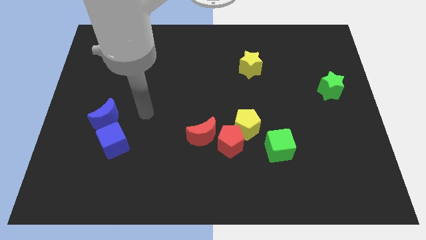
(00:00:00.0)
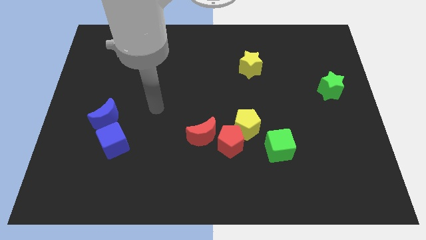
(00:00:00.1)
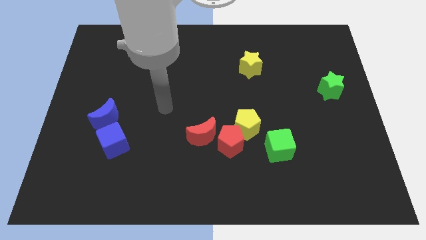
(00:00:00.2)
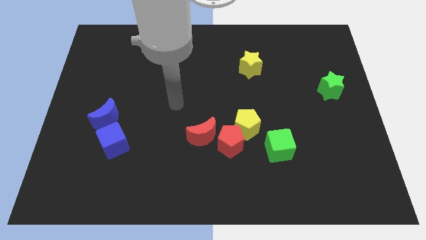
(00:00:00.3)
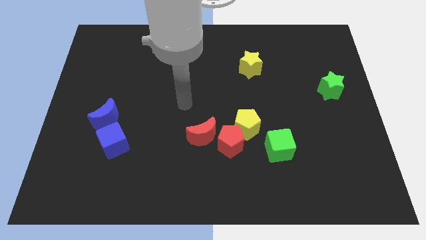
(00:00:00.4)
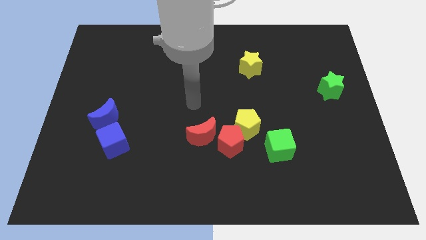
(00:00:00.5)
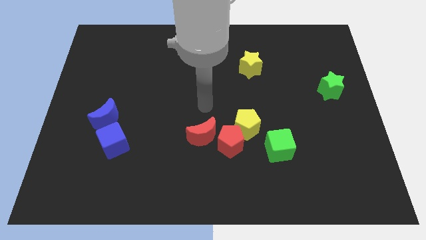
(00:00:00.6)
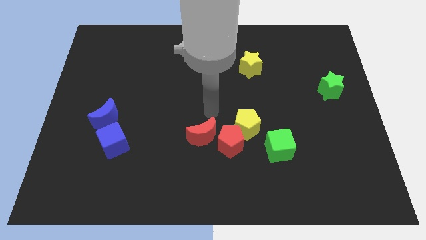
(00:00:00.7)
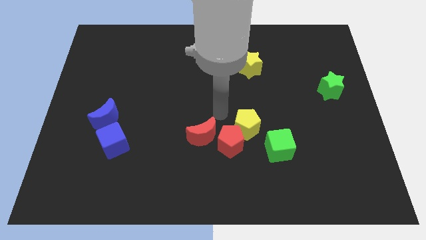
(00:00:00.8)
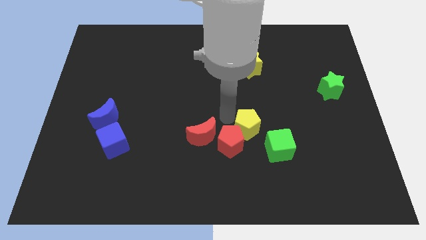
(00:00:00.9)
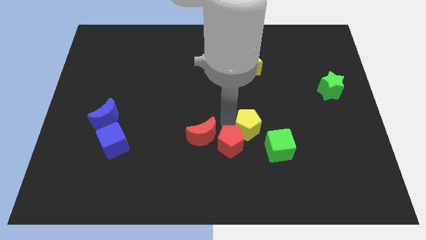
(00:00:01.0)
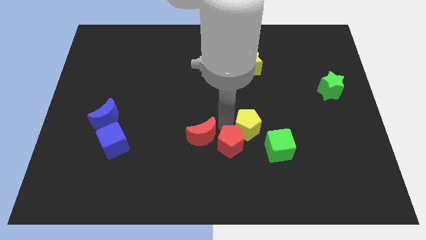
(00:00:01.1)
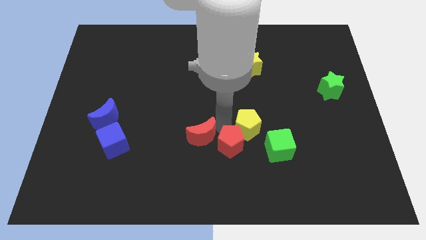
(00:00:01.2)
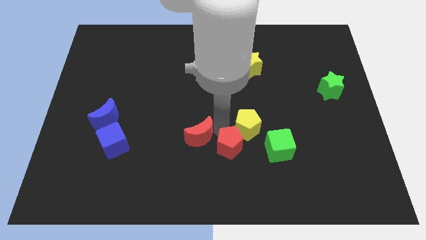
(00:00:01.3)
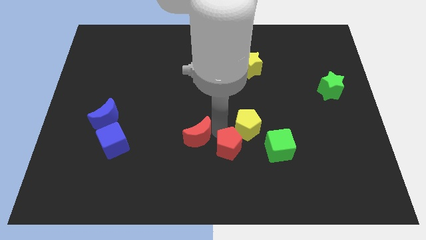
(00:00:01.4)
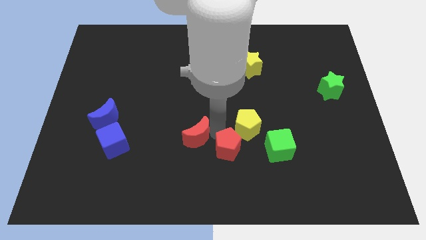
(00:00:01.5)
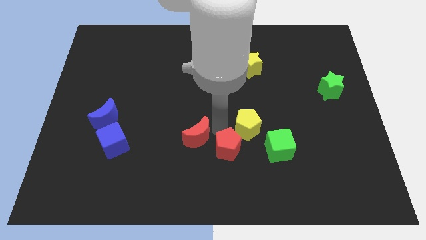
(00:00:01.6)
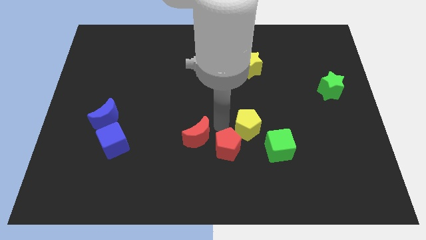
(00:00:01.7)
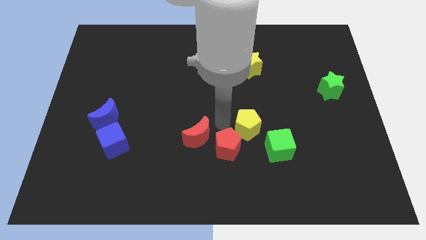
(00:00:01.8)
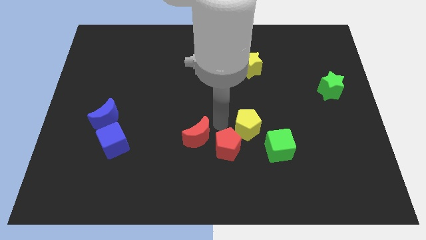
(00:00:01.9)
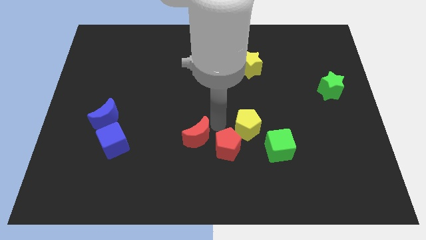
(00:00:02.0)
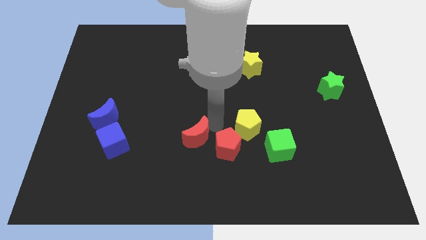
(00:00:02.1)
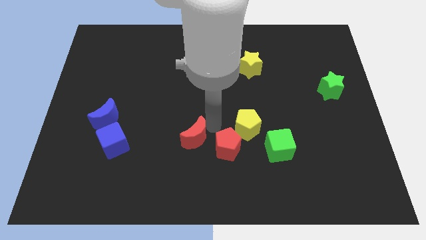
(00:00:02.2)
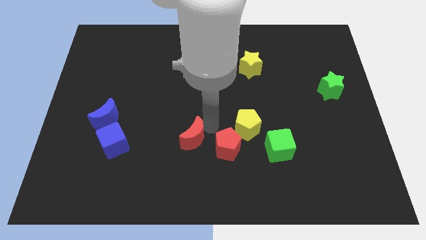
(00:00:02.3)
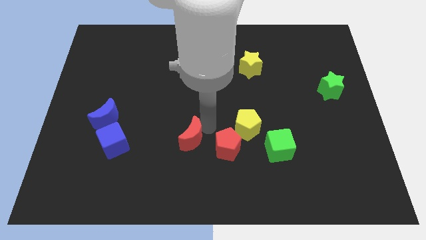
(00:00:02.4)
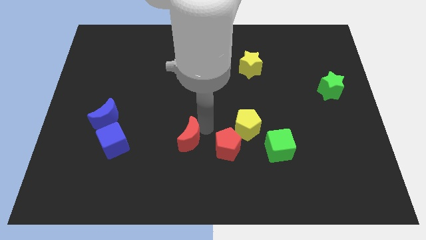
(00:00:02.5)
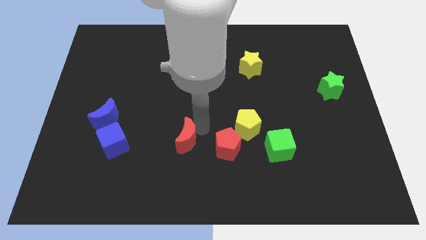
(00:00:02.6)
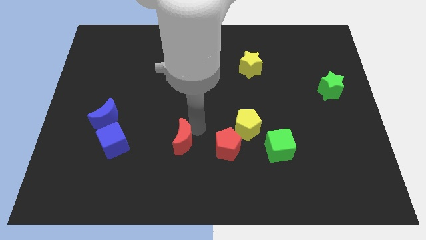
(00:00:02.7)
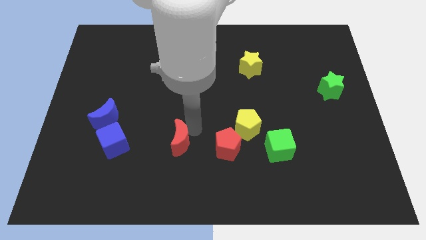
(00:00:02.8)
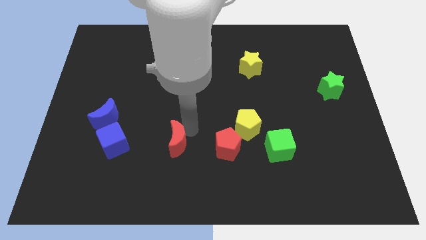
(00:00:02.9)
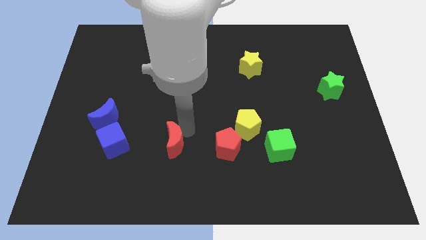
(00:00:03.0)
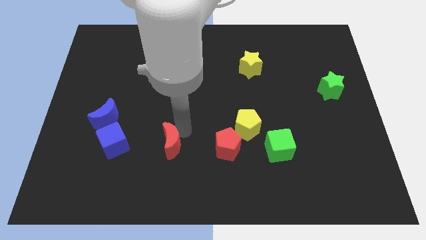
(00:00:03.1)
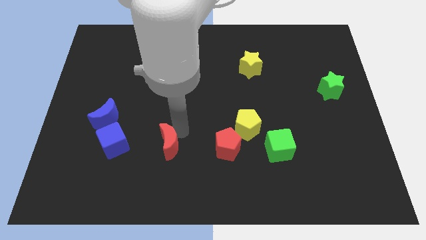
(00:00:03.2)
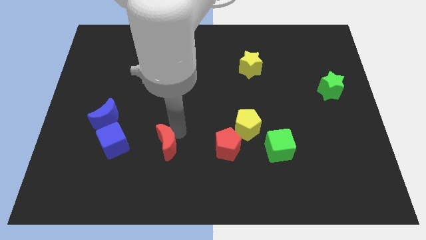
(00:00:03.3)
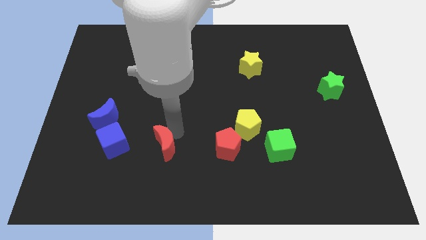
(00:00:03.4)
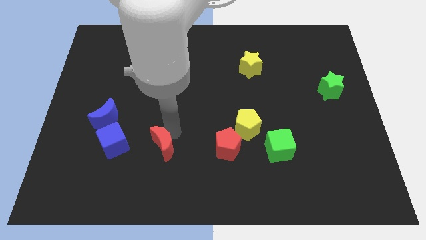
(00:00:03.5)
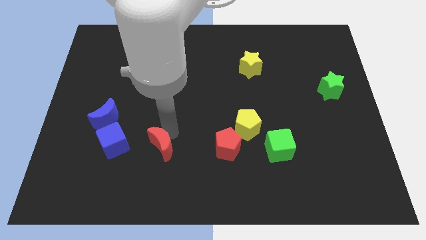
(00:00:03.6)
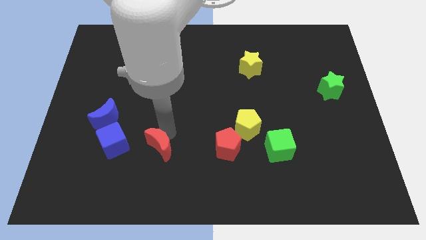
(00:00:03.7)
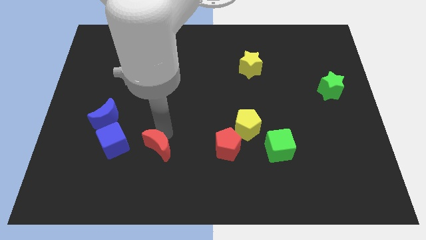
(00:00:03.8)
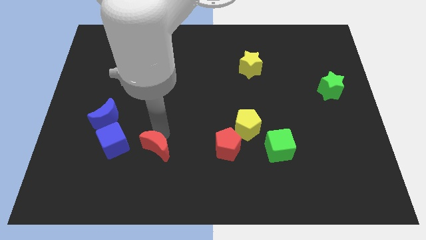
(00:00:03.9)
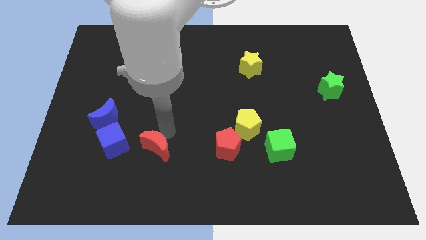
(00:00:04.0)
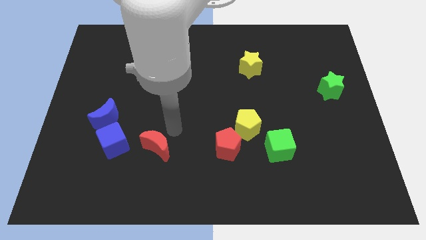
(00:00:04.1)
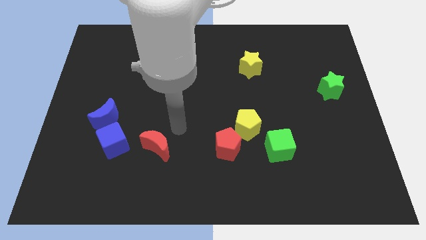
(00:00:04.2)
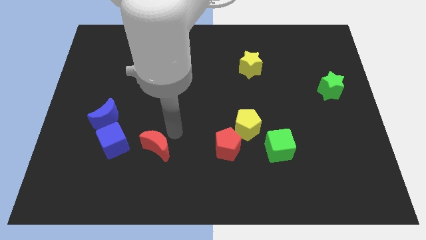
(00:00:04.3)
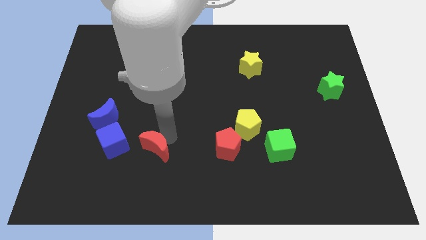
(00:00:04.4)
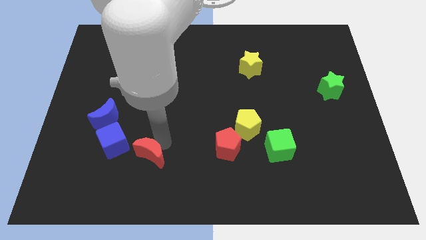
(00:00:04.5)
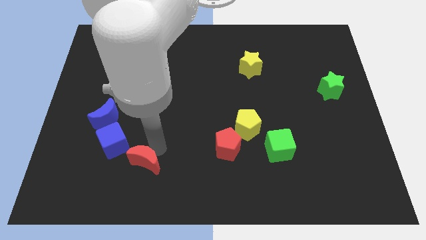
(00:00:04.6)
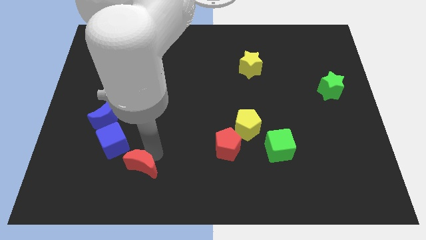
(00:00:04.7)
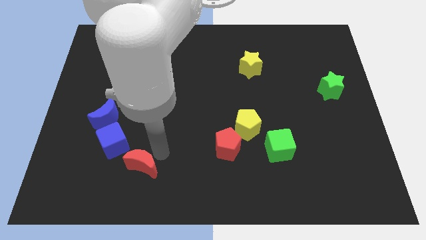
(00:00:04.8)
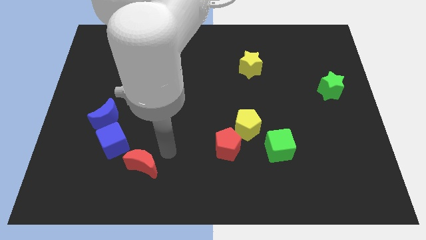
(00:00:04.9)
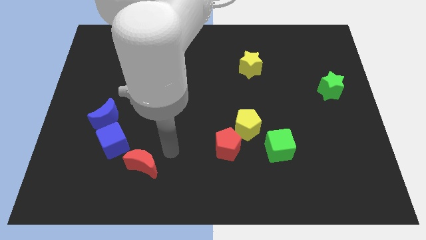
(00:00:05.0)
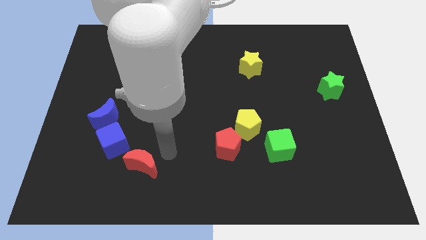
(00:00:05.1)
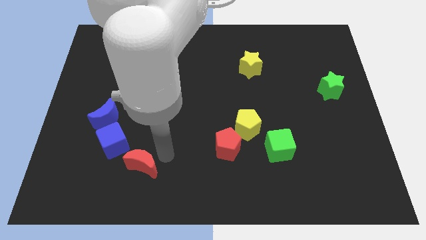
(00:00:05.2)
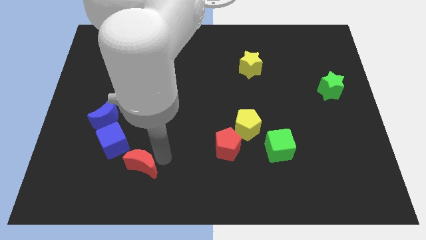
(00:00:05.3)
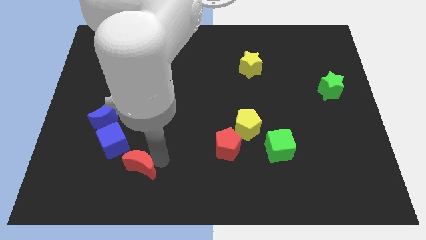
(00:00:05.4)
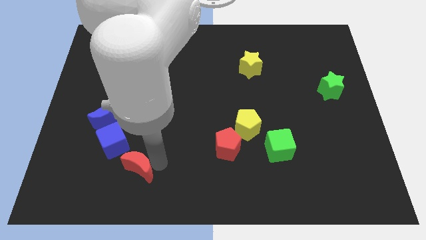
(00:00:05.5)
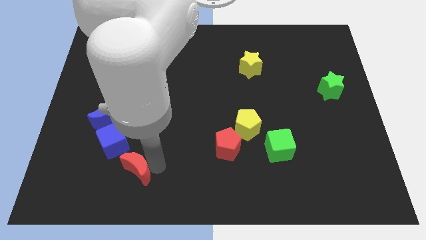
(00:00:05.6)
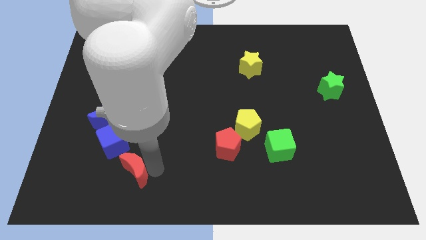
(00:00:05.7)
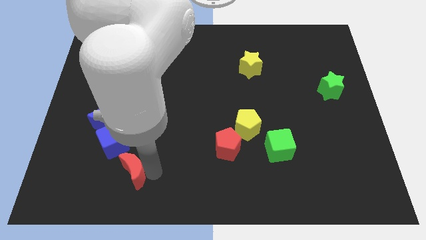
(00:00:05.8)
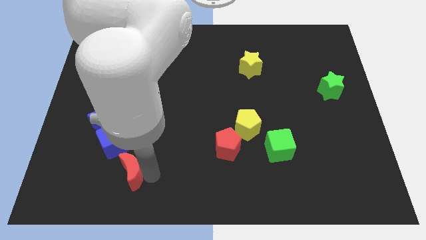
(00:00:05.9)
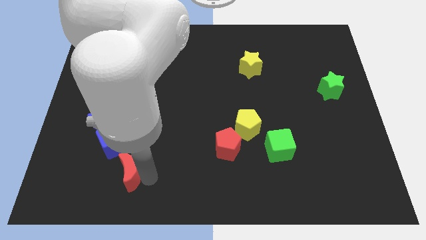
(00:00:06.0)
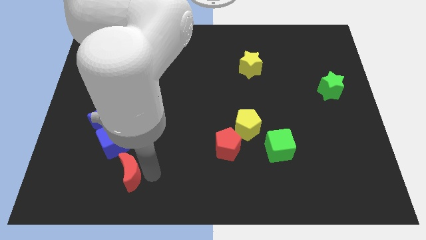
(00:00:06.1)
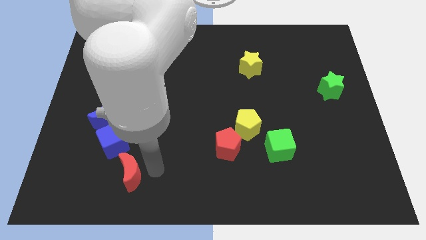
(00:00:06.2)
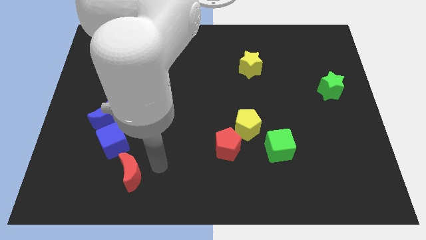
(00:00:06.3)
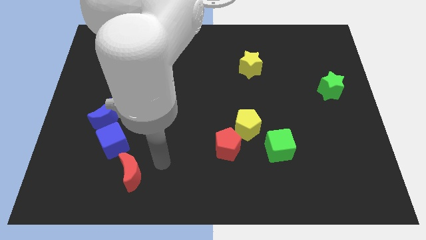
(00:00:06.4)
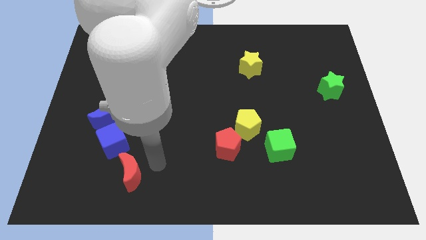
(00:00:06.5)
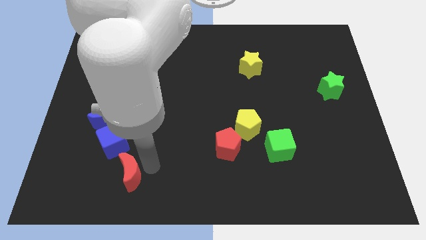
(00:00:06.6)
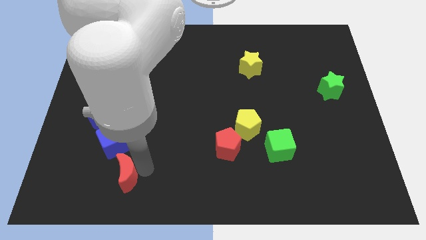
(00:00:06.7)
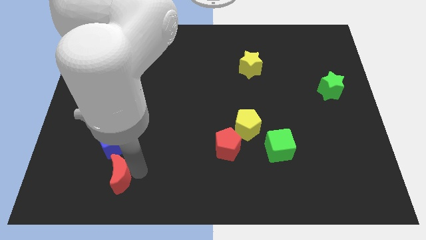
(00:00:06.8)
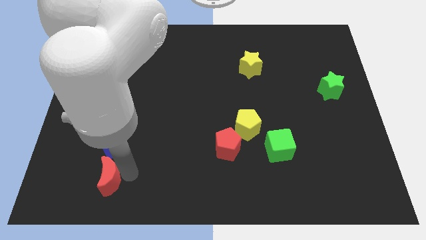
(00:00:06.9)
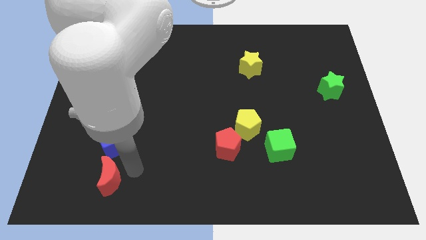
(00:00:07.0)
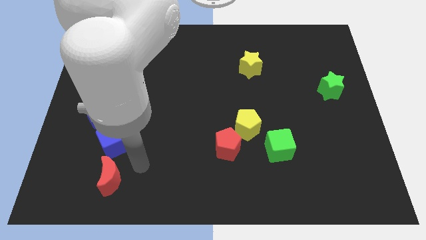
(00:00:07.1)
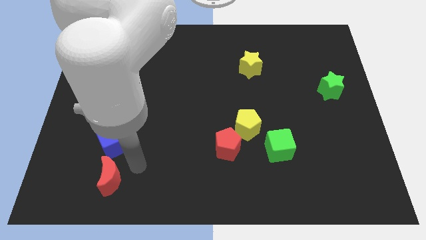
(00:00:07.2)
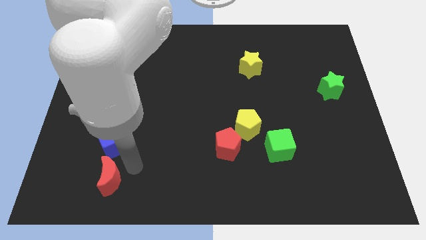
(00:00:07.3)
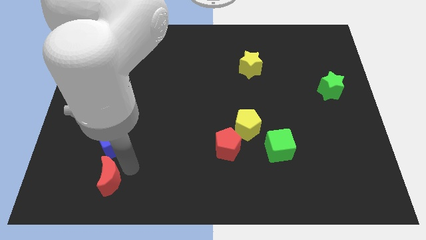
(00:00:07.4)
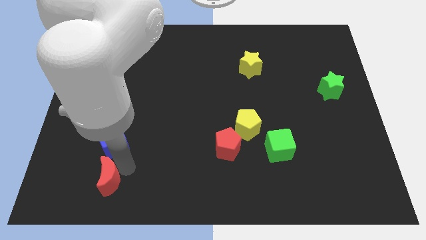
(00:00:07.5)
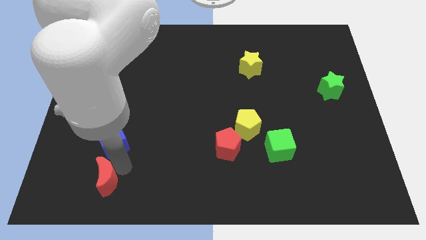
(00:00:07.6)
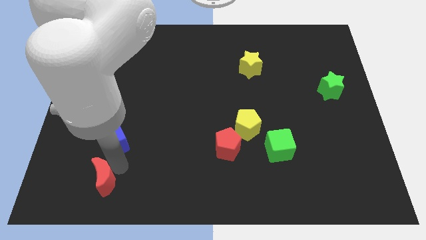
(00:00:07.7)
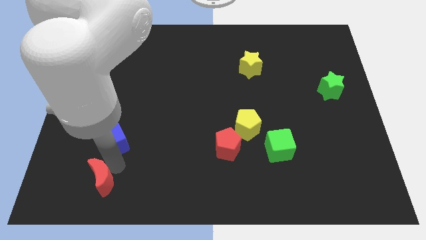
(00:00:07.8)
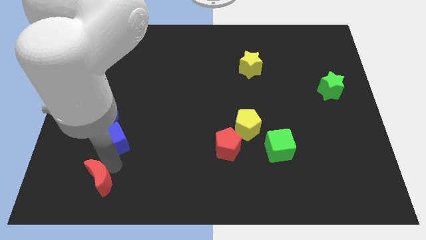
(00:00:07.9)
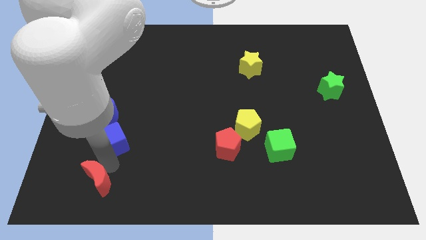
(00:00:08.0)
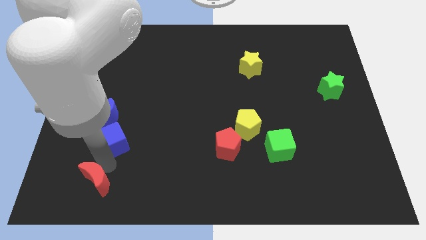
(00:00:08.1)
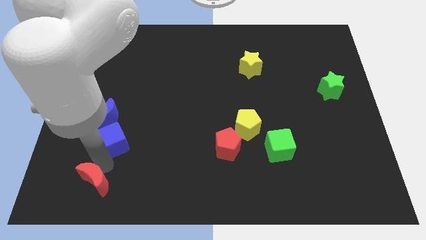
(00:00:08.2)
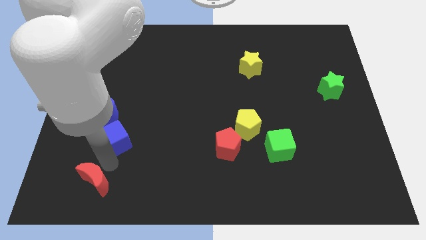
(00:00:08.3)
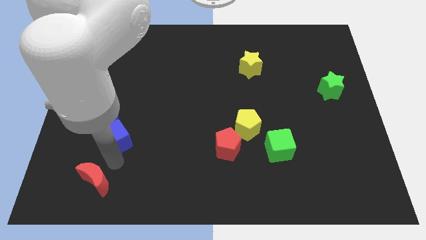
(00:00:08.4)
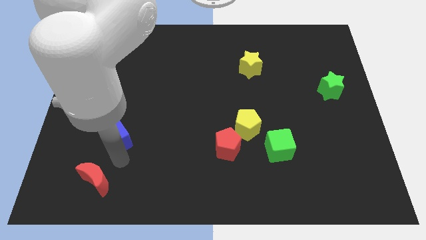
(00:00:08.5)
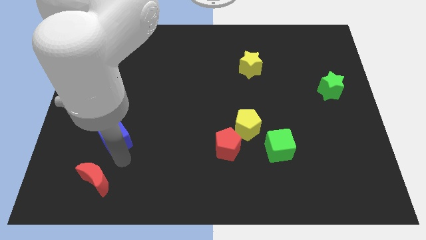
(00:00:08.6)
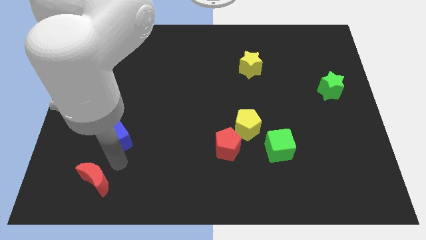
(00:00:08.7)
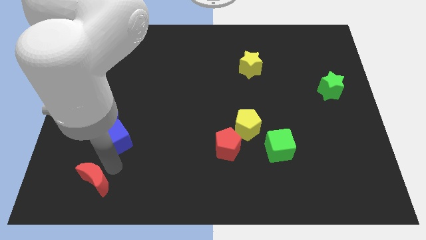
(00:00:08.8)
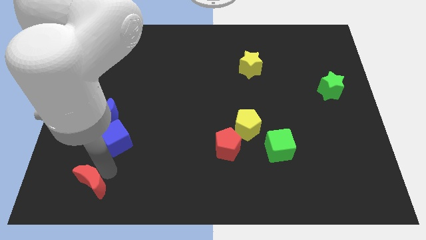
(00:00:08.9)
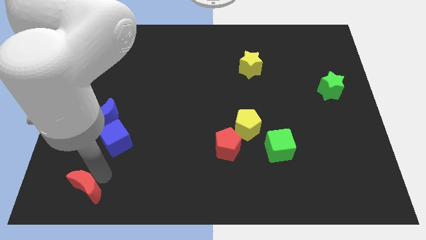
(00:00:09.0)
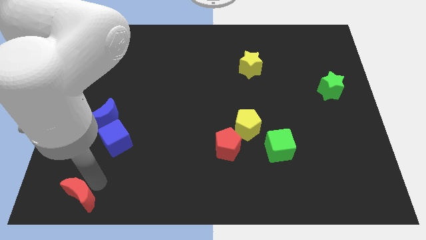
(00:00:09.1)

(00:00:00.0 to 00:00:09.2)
put the red moon to the lower left corner
